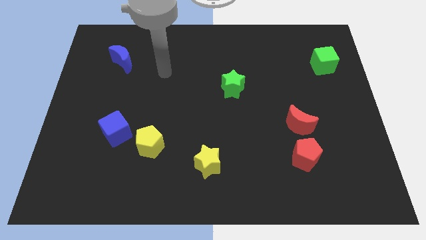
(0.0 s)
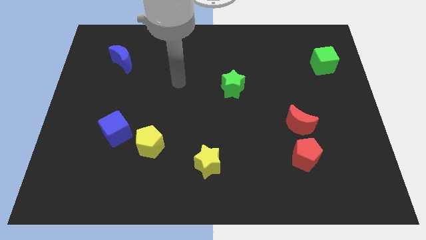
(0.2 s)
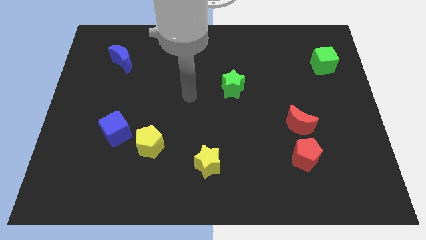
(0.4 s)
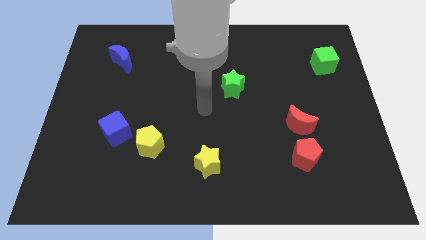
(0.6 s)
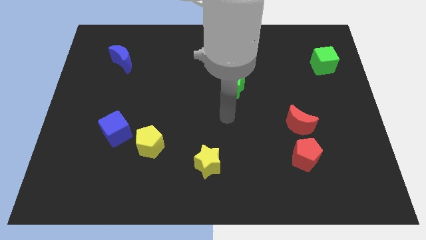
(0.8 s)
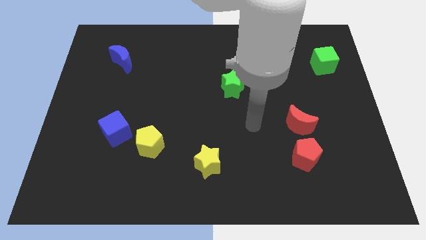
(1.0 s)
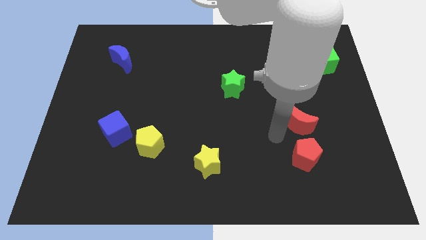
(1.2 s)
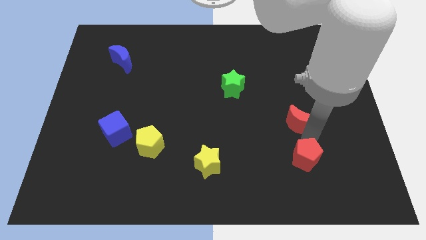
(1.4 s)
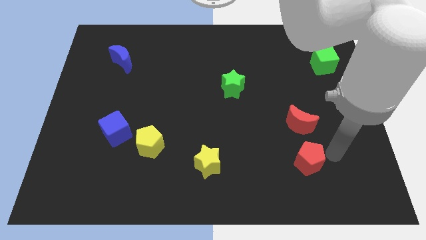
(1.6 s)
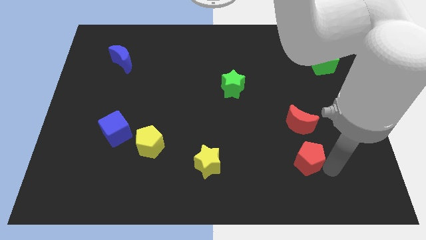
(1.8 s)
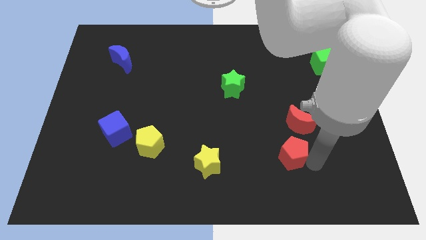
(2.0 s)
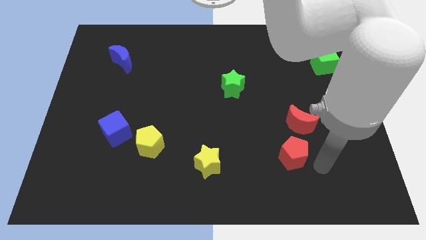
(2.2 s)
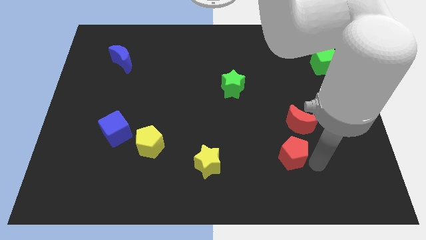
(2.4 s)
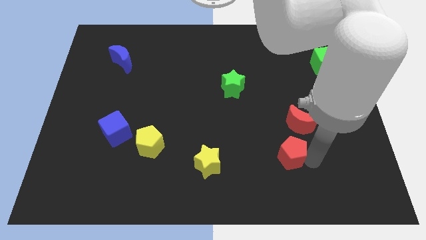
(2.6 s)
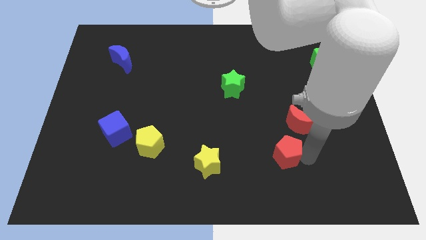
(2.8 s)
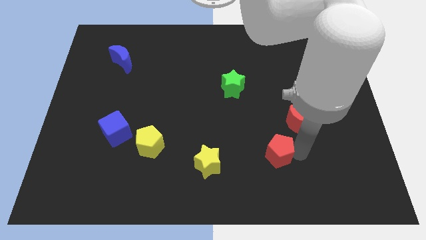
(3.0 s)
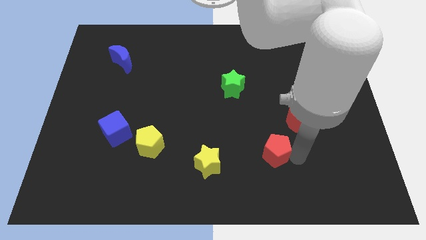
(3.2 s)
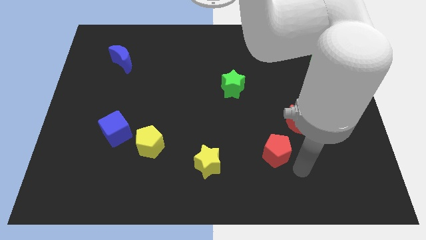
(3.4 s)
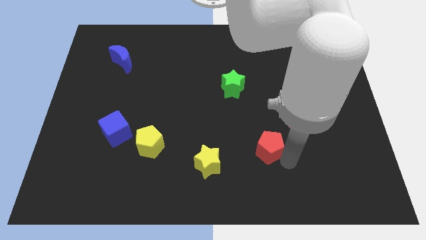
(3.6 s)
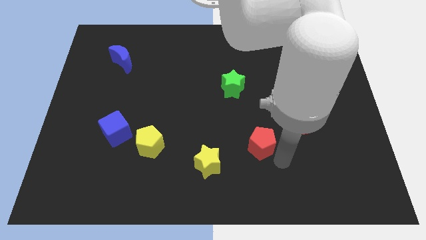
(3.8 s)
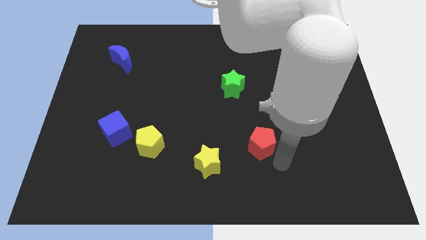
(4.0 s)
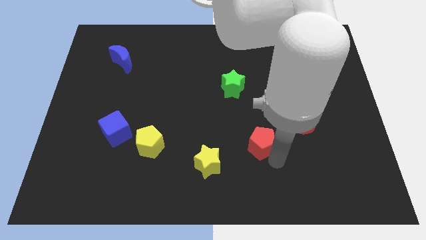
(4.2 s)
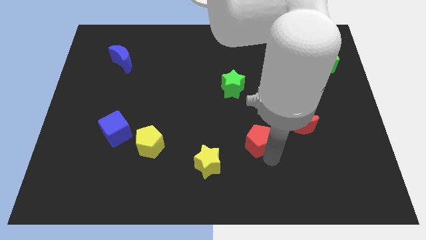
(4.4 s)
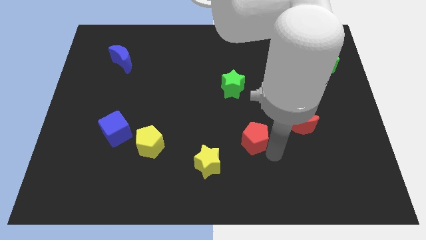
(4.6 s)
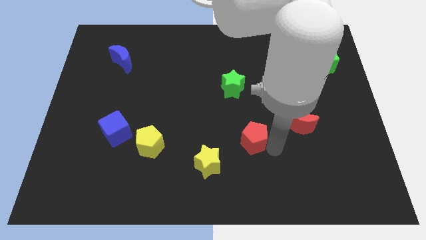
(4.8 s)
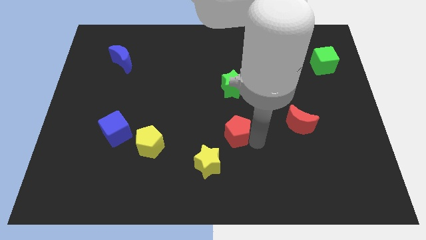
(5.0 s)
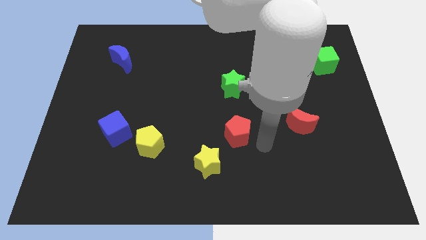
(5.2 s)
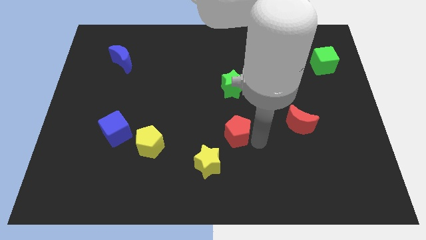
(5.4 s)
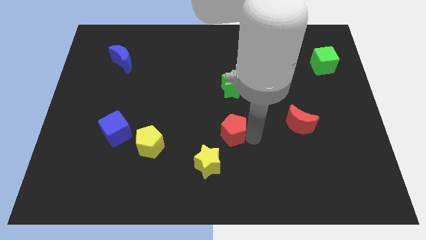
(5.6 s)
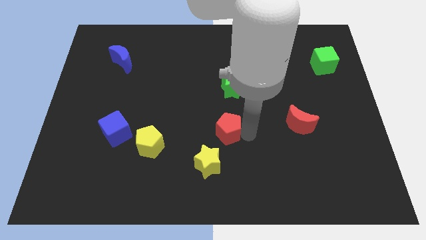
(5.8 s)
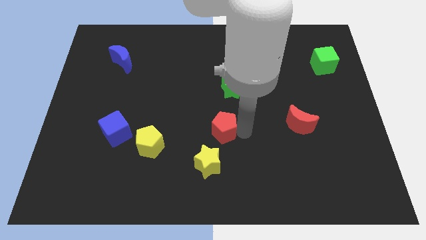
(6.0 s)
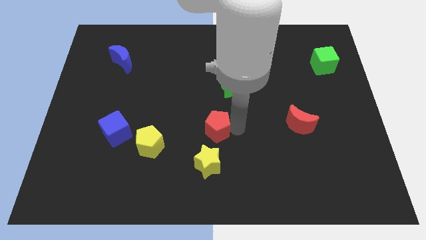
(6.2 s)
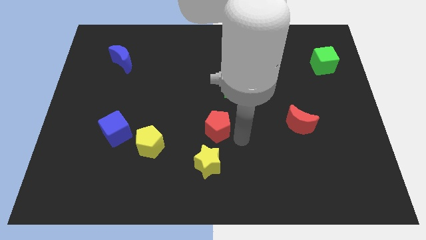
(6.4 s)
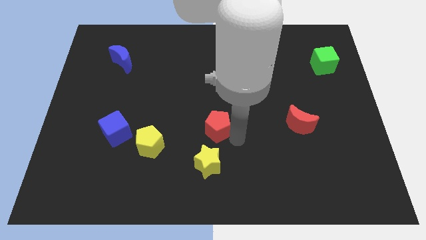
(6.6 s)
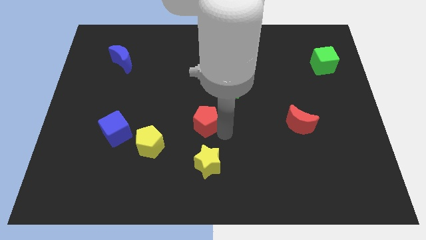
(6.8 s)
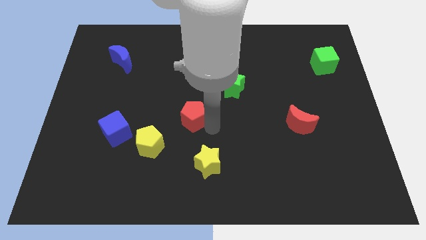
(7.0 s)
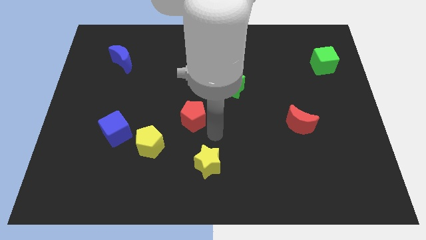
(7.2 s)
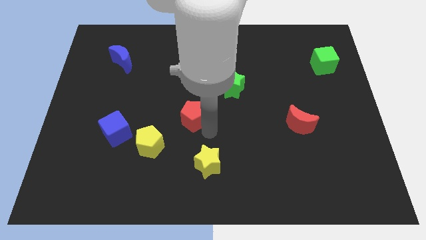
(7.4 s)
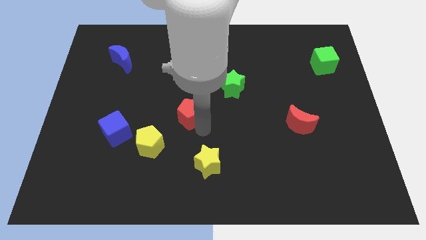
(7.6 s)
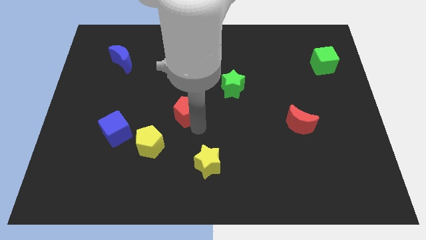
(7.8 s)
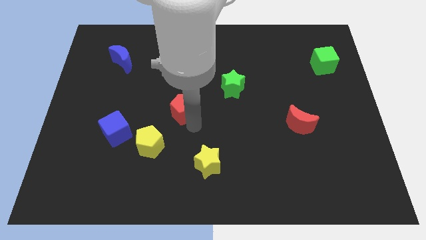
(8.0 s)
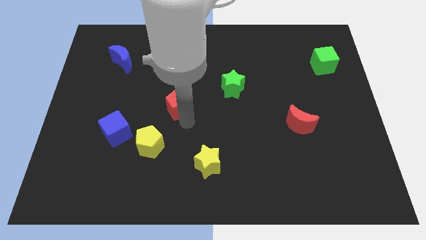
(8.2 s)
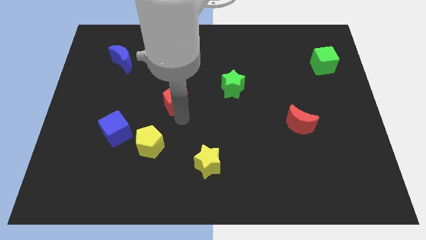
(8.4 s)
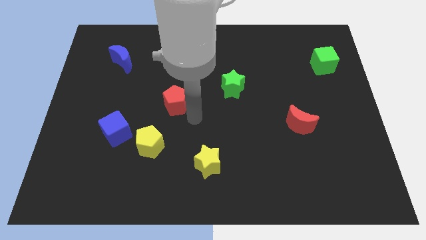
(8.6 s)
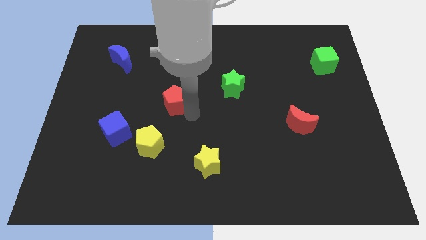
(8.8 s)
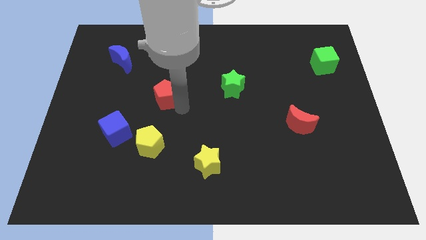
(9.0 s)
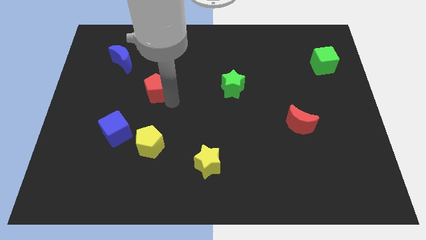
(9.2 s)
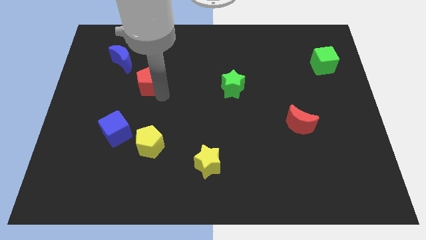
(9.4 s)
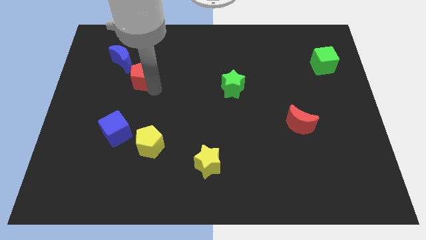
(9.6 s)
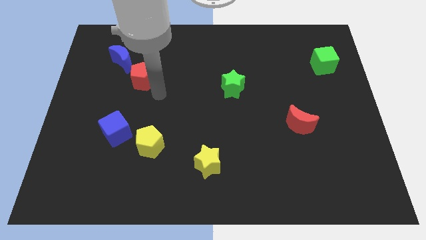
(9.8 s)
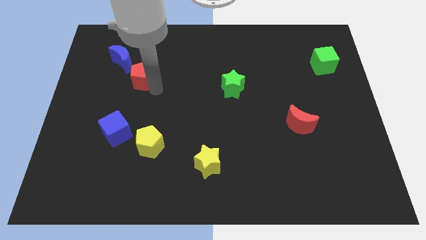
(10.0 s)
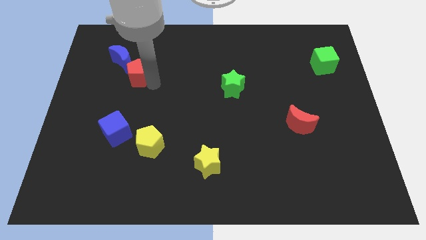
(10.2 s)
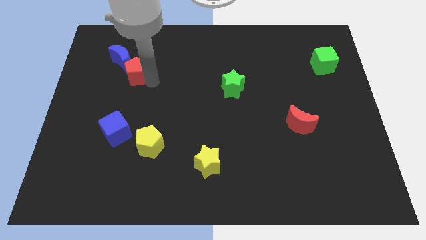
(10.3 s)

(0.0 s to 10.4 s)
move the red pentagon next to the blue moon
